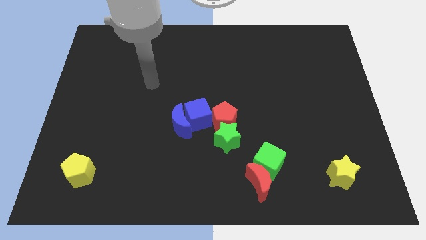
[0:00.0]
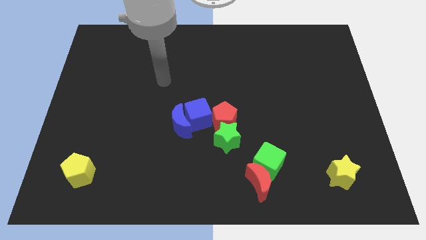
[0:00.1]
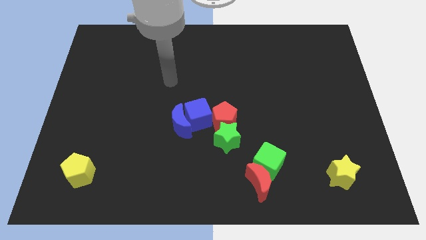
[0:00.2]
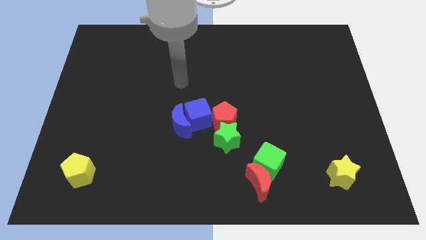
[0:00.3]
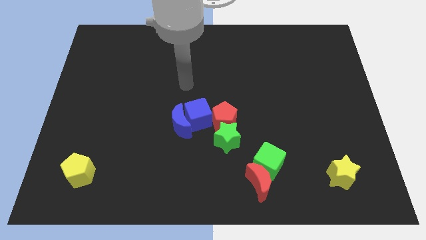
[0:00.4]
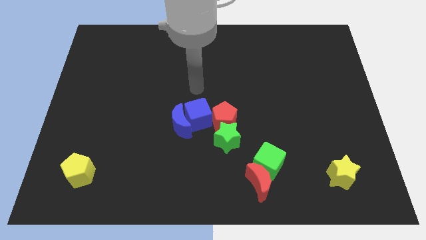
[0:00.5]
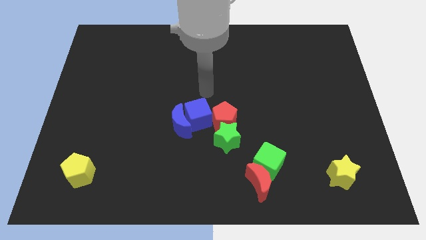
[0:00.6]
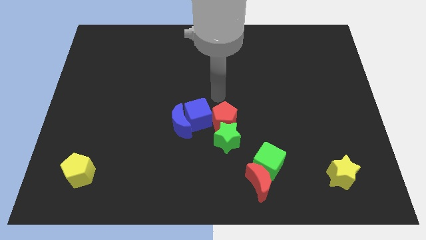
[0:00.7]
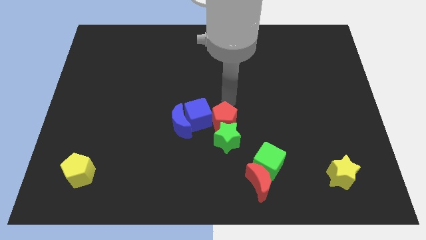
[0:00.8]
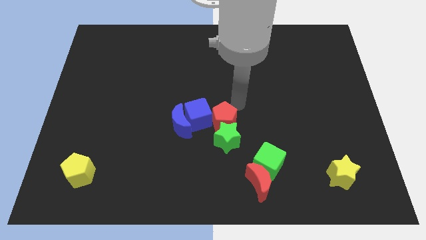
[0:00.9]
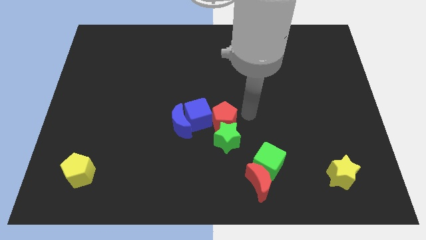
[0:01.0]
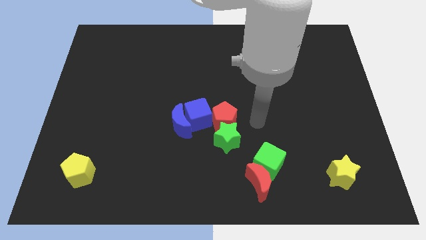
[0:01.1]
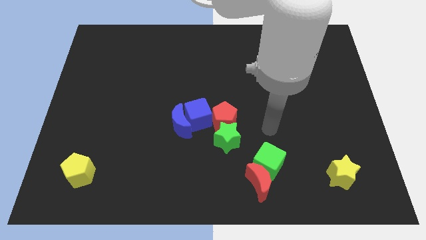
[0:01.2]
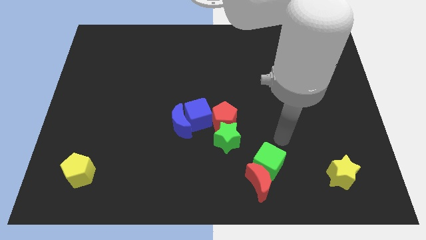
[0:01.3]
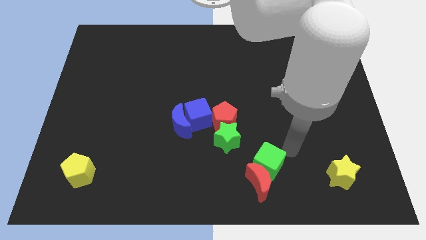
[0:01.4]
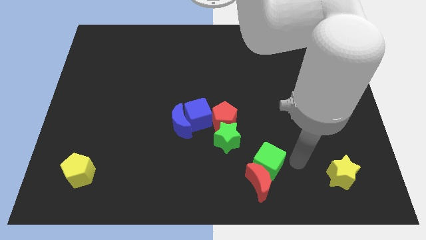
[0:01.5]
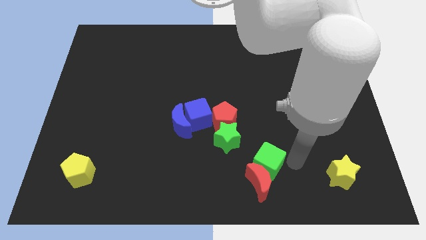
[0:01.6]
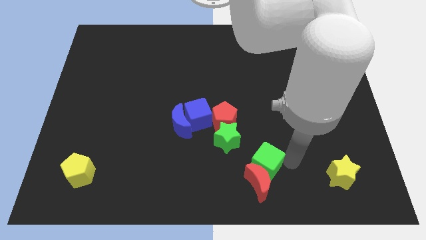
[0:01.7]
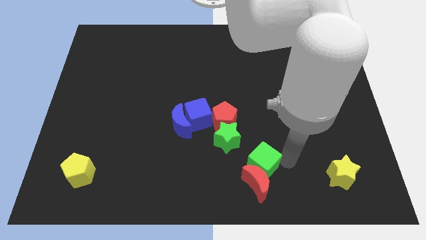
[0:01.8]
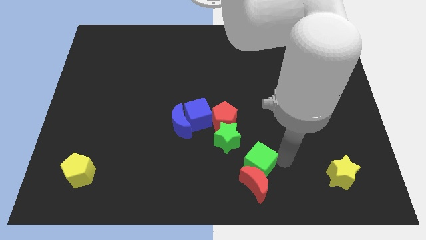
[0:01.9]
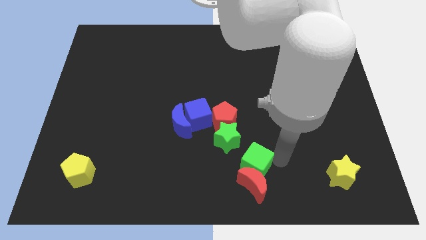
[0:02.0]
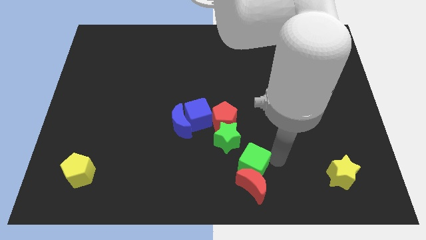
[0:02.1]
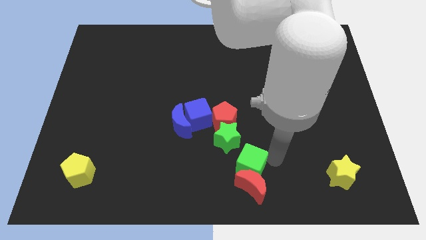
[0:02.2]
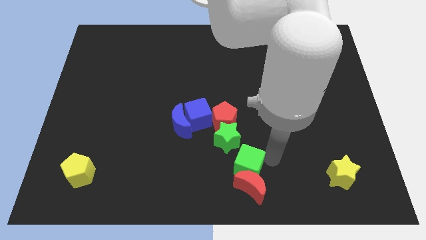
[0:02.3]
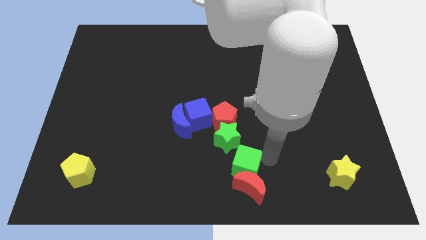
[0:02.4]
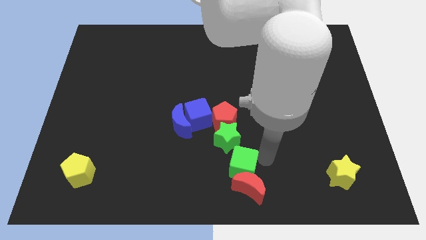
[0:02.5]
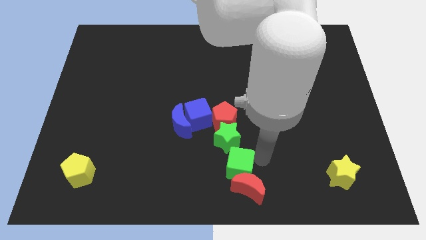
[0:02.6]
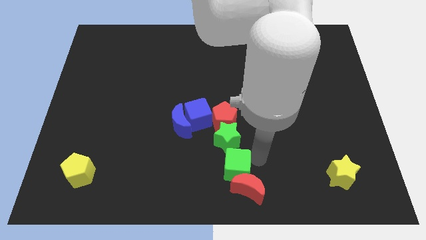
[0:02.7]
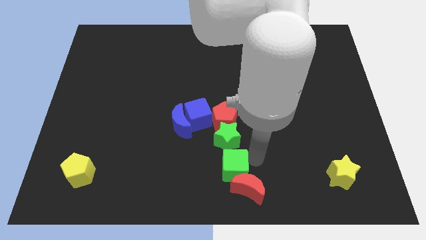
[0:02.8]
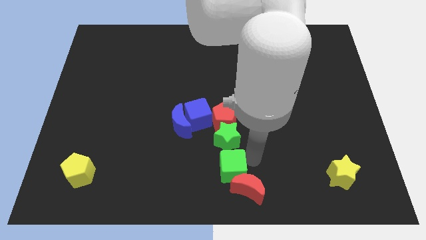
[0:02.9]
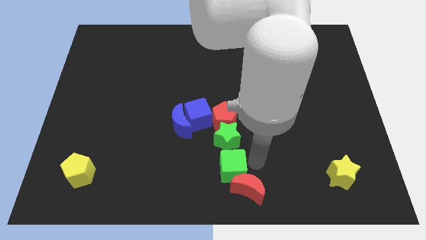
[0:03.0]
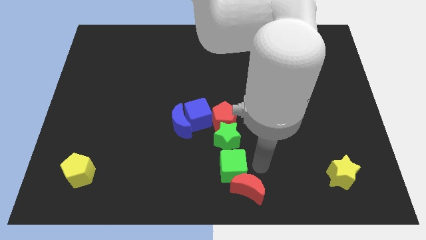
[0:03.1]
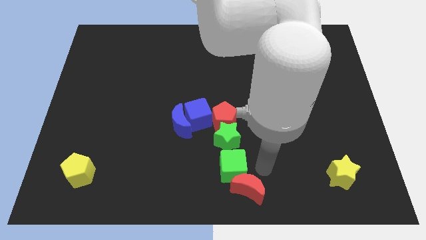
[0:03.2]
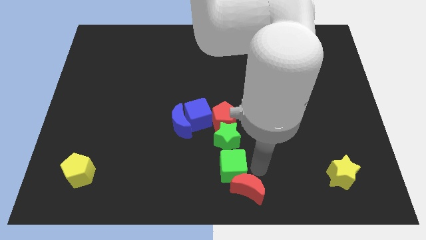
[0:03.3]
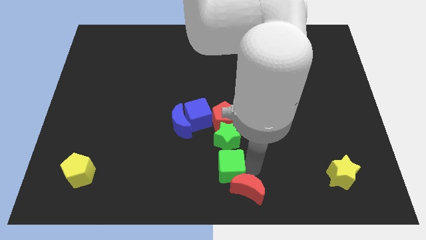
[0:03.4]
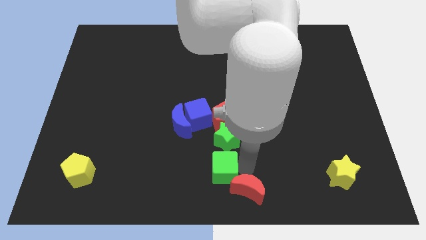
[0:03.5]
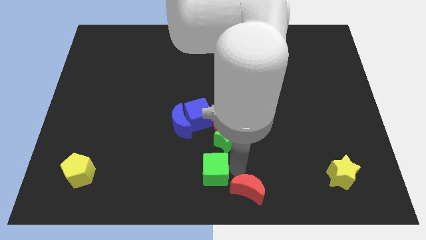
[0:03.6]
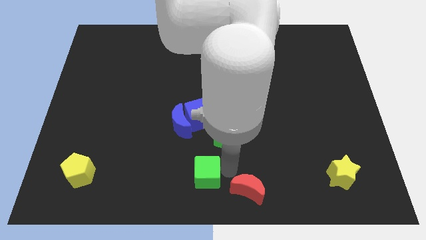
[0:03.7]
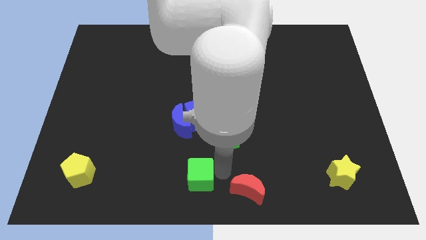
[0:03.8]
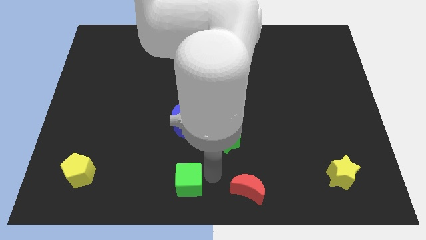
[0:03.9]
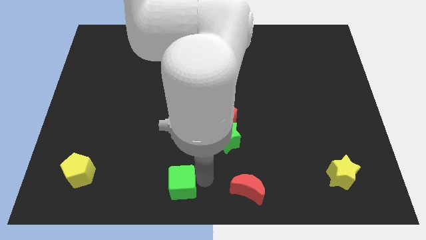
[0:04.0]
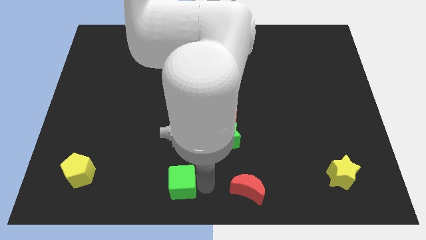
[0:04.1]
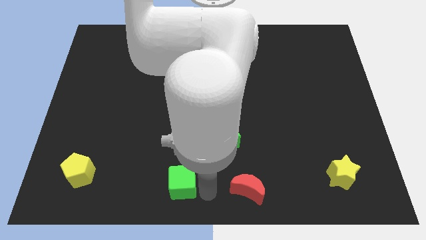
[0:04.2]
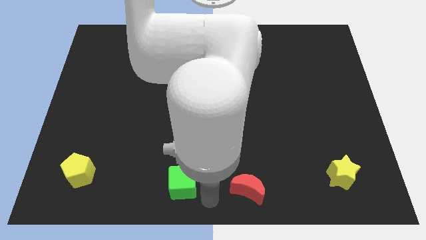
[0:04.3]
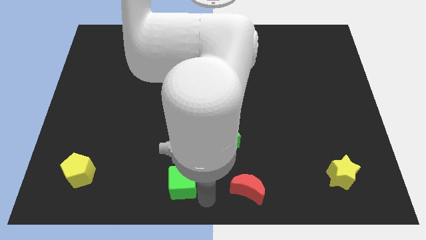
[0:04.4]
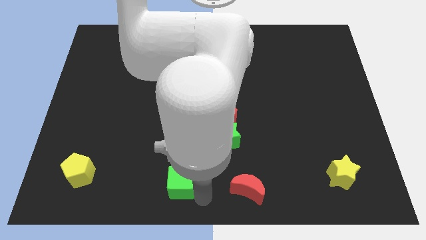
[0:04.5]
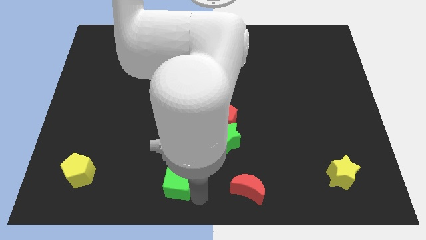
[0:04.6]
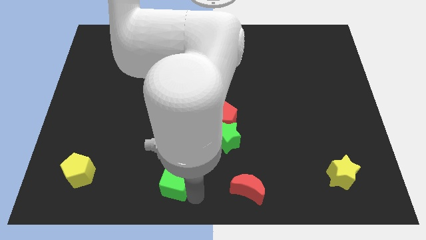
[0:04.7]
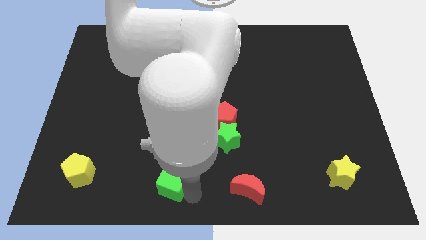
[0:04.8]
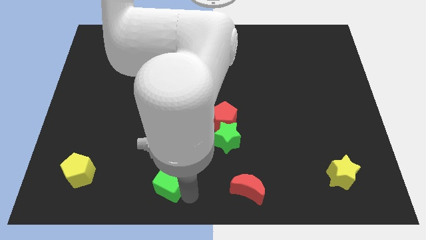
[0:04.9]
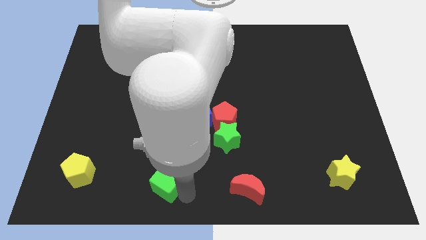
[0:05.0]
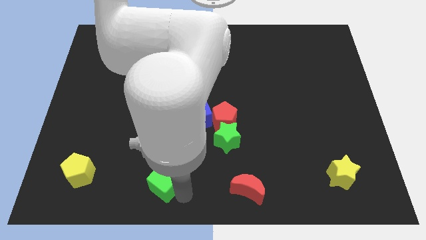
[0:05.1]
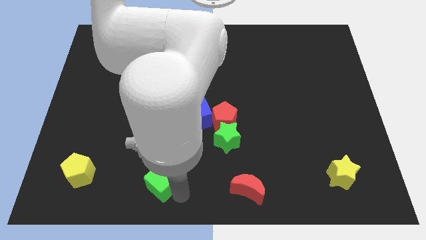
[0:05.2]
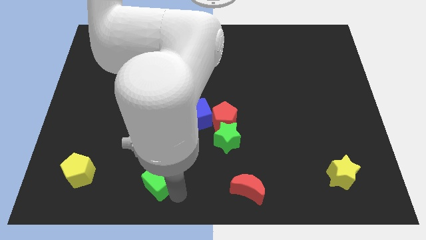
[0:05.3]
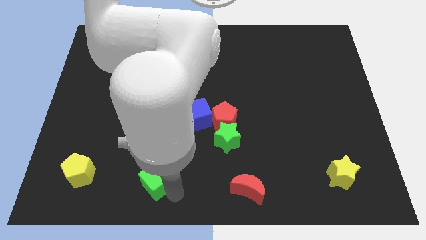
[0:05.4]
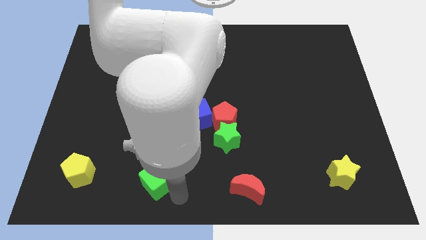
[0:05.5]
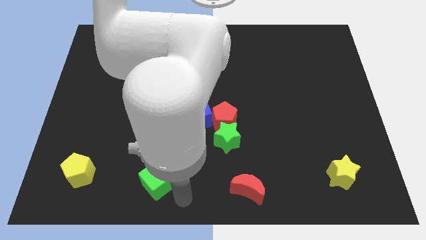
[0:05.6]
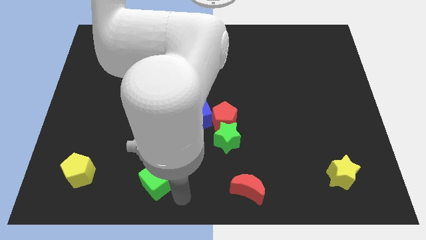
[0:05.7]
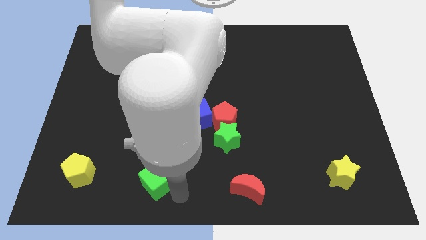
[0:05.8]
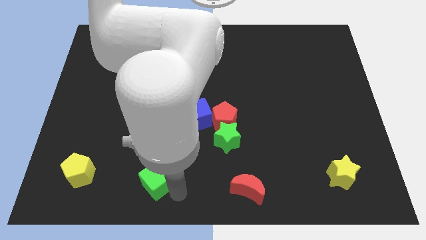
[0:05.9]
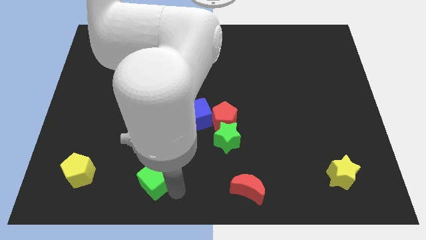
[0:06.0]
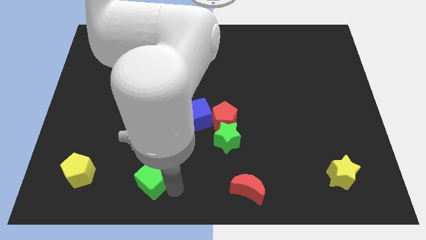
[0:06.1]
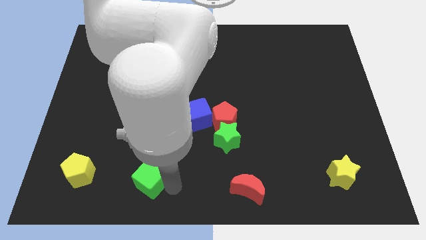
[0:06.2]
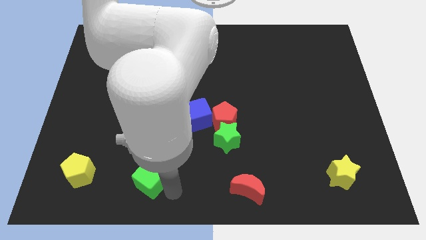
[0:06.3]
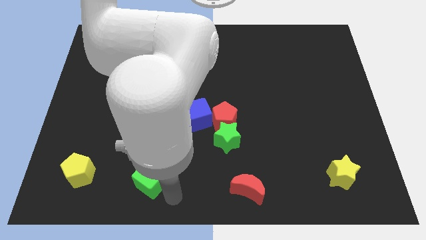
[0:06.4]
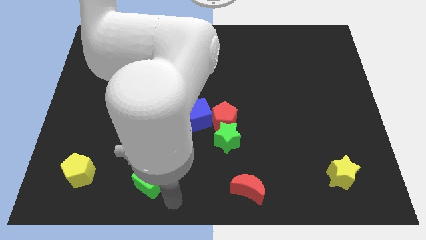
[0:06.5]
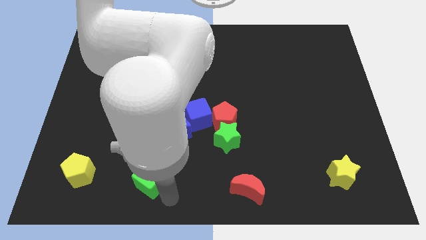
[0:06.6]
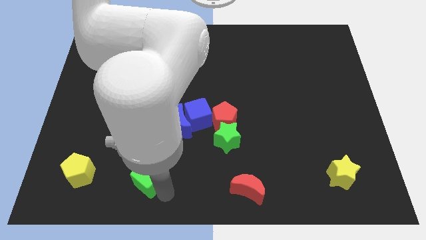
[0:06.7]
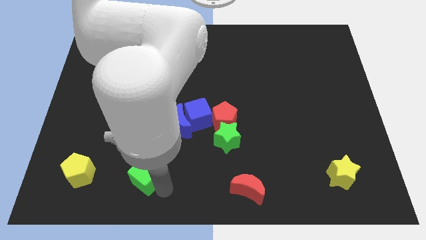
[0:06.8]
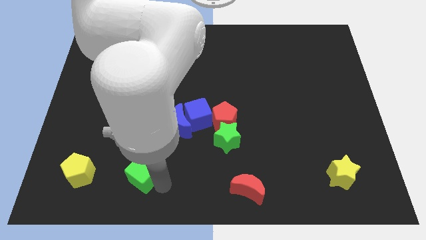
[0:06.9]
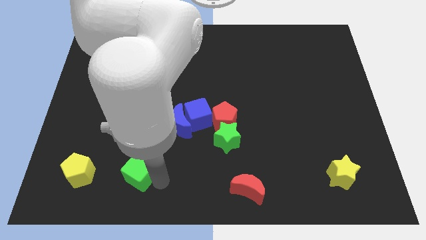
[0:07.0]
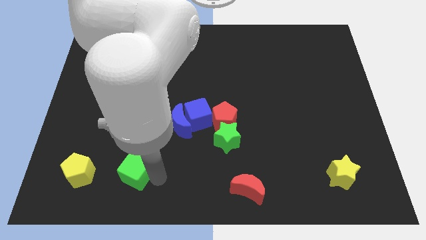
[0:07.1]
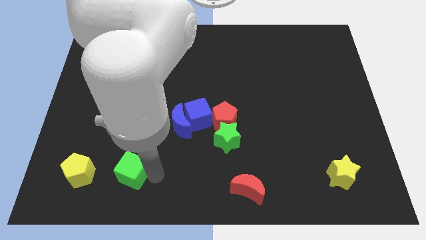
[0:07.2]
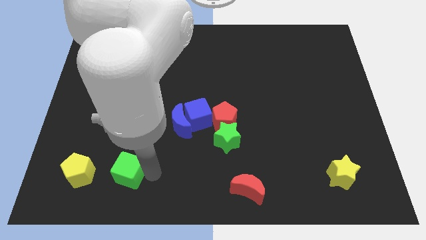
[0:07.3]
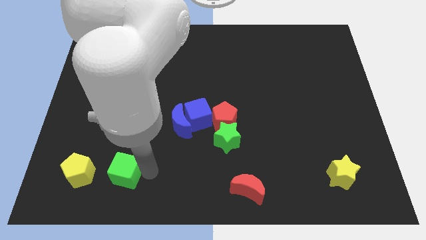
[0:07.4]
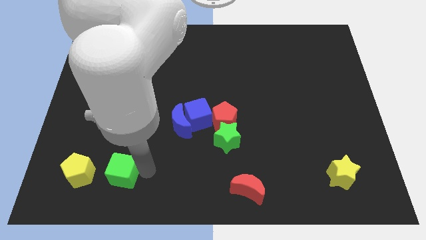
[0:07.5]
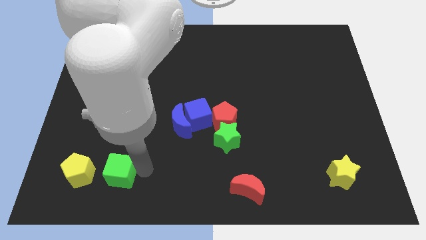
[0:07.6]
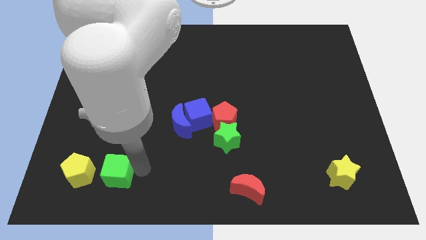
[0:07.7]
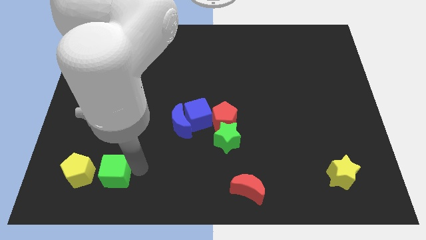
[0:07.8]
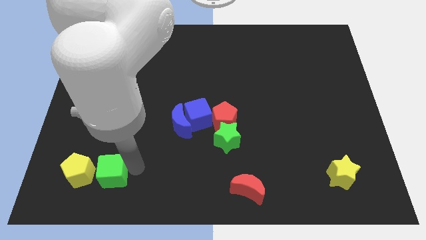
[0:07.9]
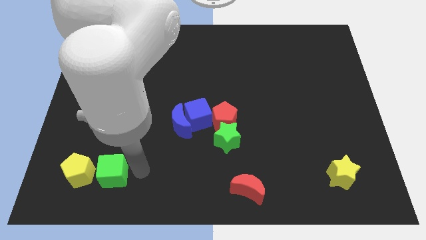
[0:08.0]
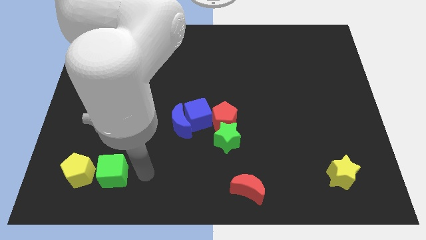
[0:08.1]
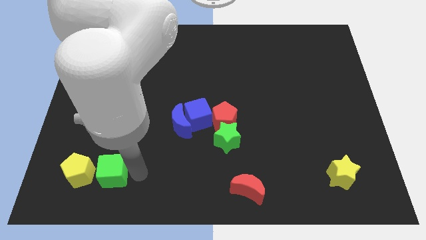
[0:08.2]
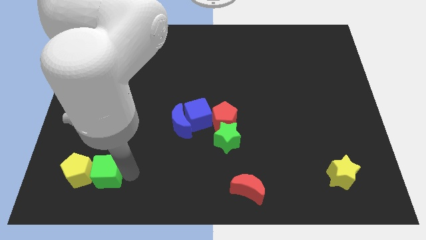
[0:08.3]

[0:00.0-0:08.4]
push the green cube close to the yellow pentagon
